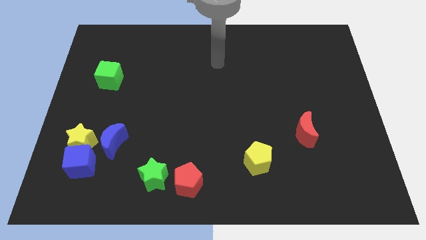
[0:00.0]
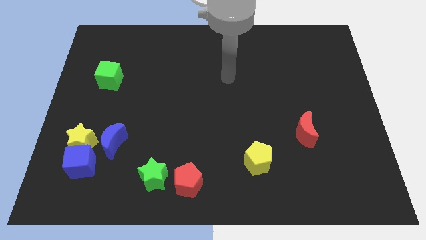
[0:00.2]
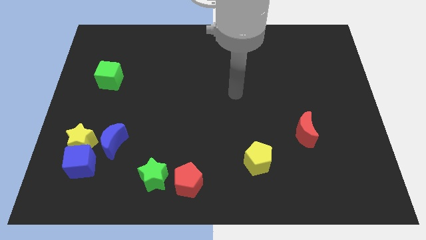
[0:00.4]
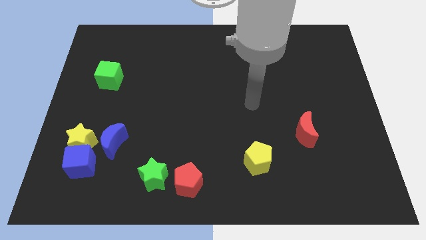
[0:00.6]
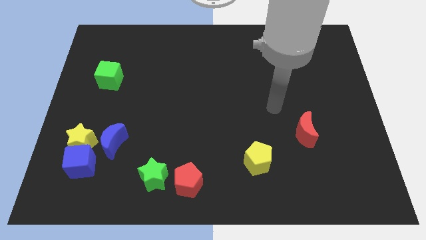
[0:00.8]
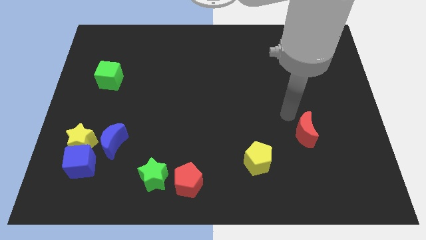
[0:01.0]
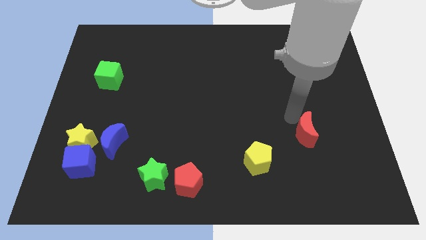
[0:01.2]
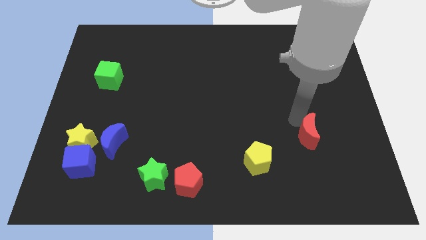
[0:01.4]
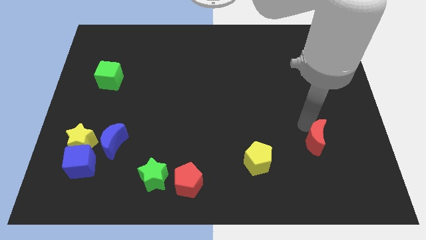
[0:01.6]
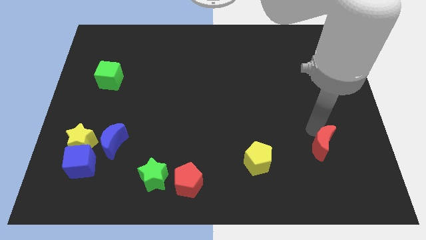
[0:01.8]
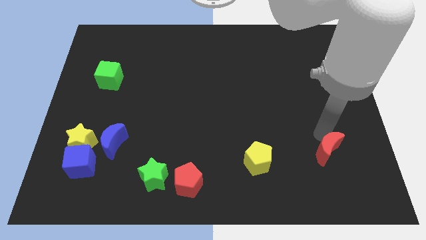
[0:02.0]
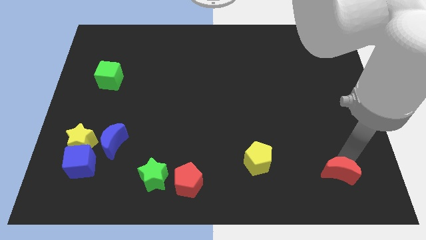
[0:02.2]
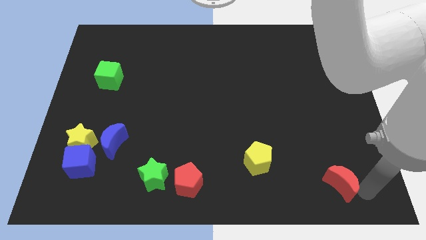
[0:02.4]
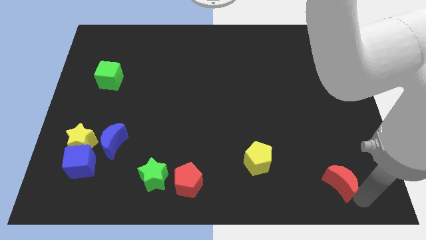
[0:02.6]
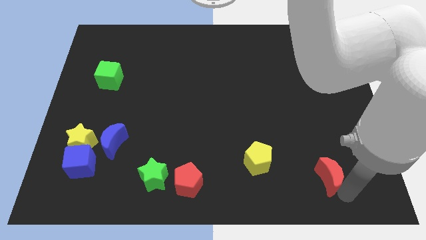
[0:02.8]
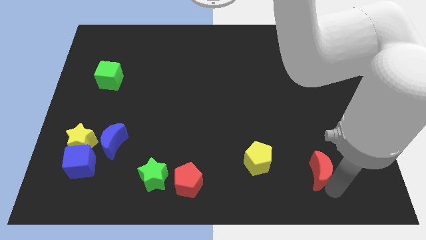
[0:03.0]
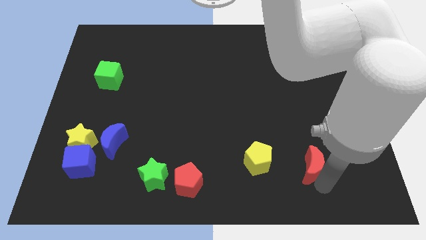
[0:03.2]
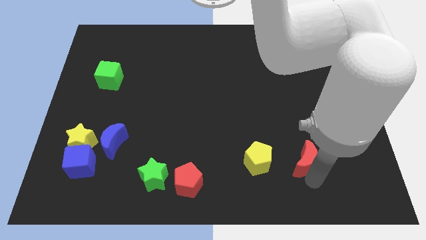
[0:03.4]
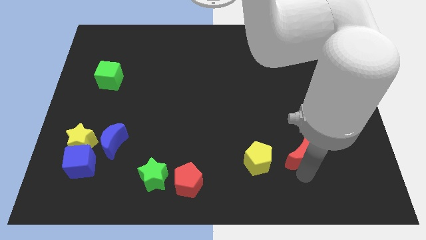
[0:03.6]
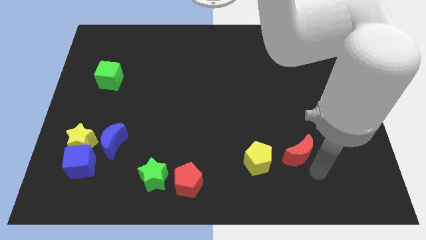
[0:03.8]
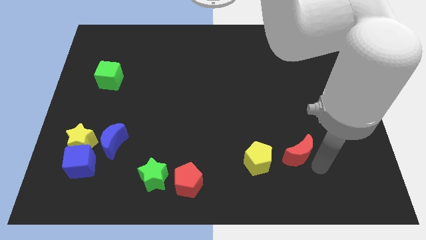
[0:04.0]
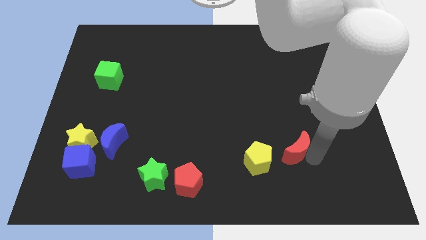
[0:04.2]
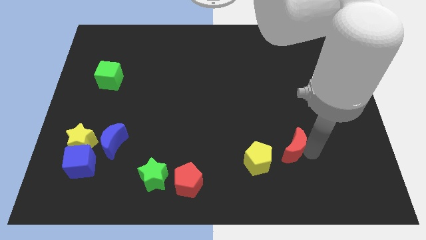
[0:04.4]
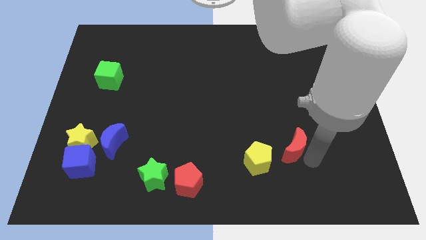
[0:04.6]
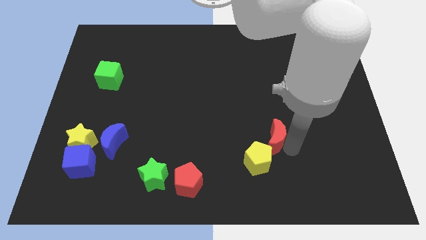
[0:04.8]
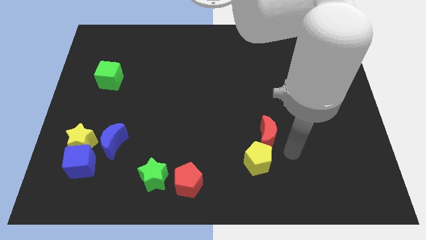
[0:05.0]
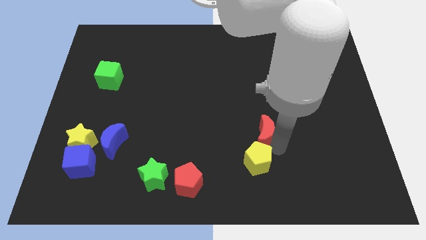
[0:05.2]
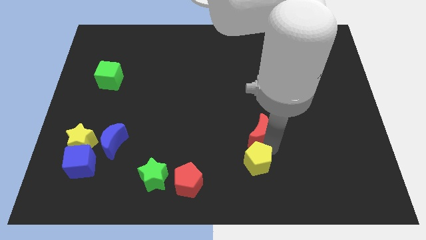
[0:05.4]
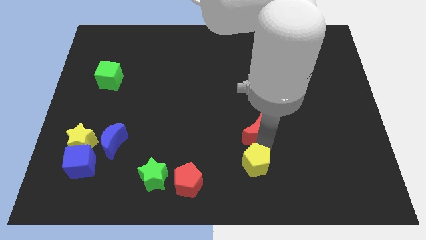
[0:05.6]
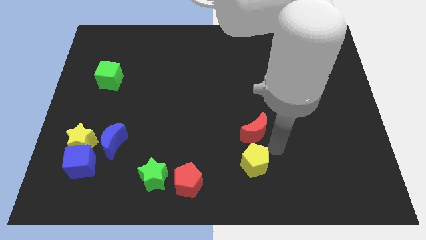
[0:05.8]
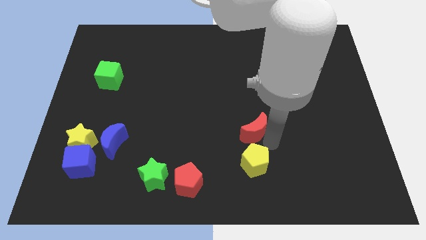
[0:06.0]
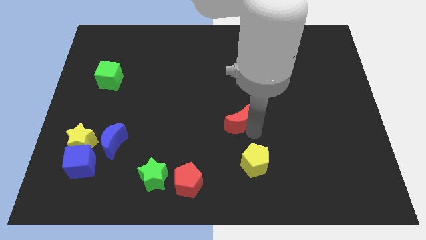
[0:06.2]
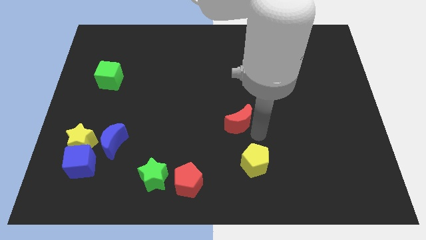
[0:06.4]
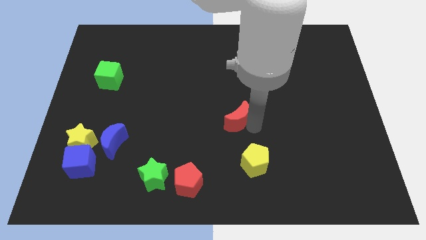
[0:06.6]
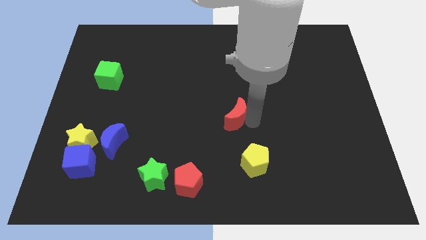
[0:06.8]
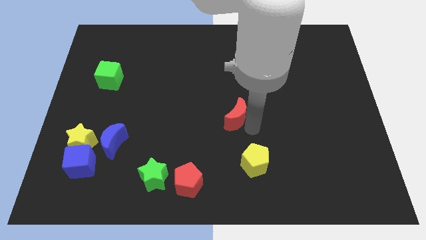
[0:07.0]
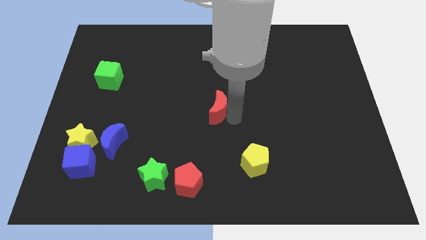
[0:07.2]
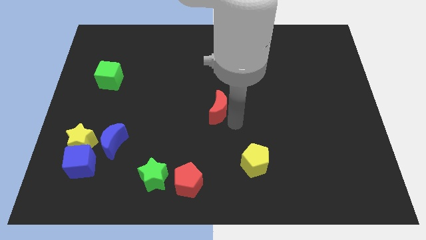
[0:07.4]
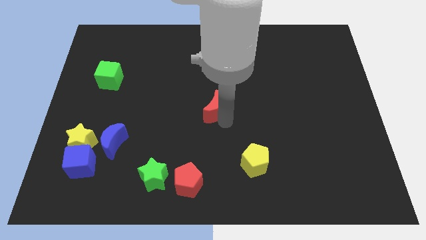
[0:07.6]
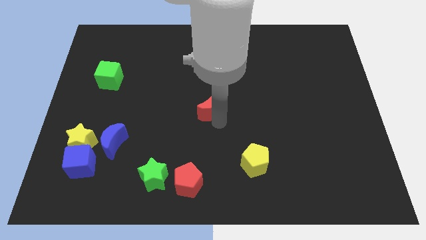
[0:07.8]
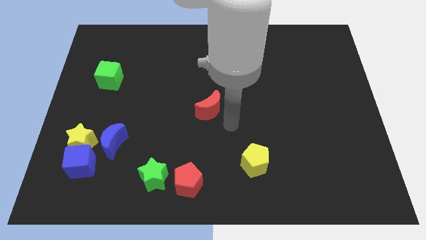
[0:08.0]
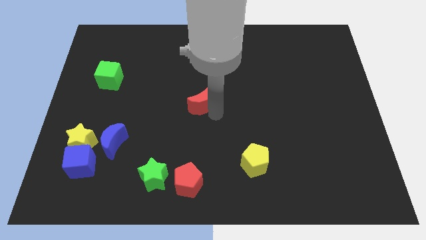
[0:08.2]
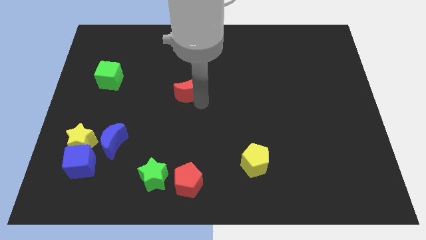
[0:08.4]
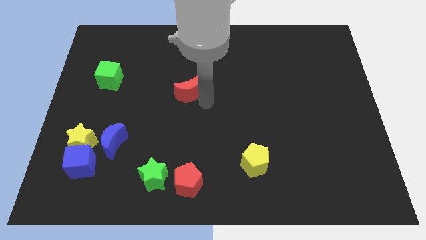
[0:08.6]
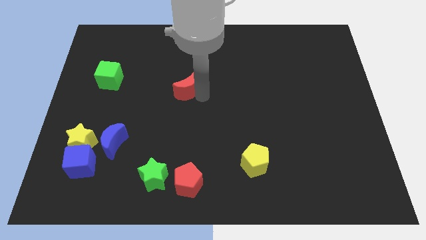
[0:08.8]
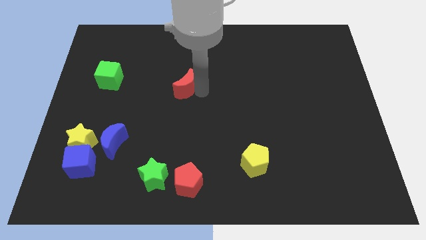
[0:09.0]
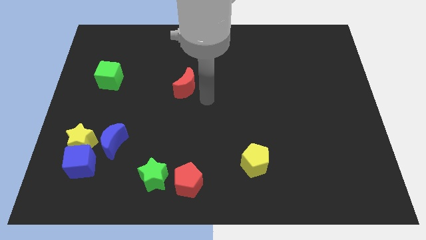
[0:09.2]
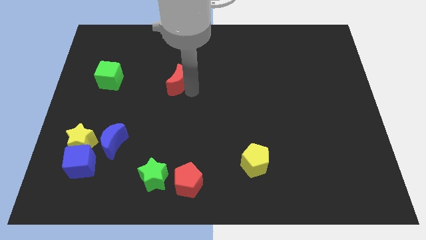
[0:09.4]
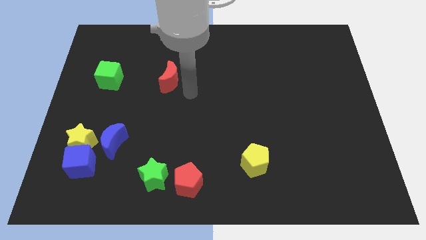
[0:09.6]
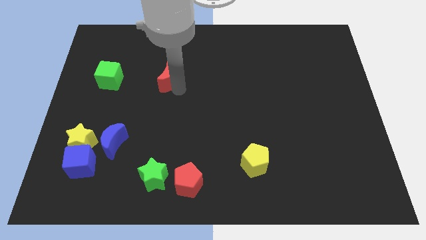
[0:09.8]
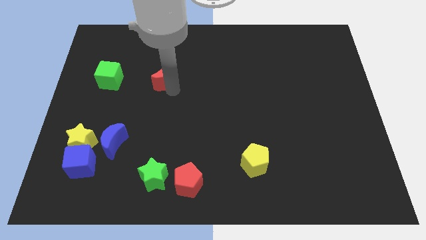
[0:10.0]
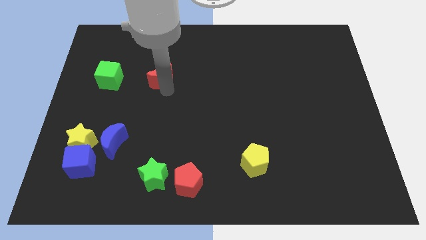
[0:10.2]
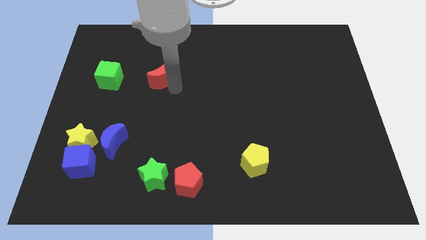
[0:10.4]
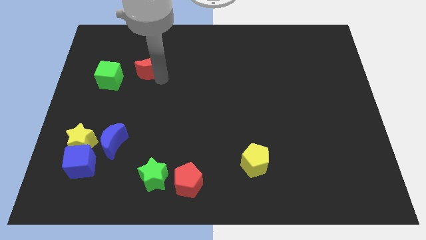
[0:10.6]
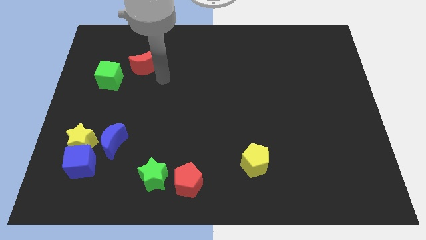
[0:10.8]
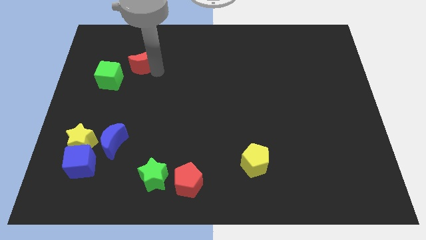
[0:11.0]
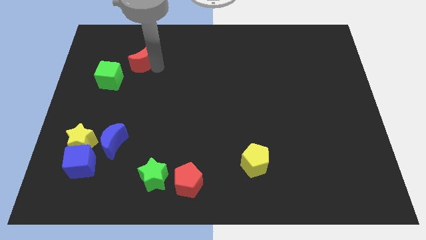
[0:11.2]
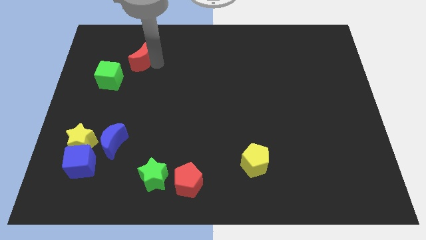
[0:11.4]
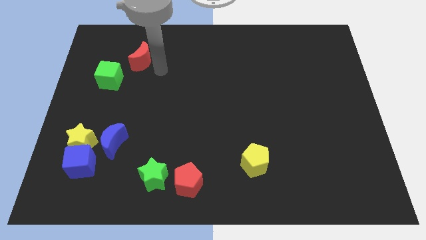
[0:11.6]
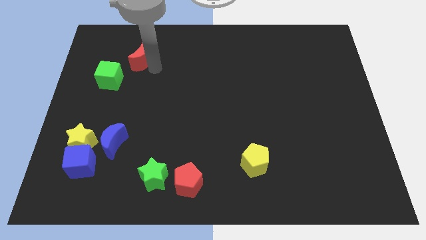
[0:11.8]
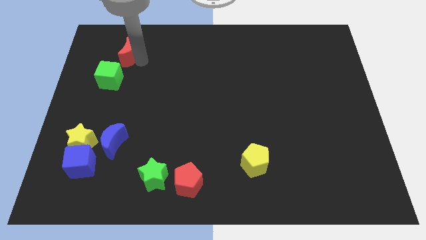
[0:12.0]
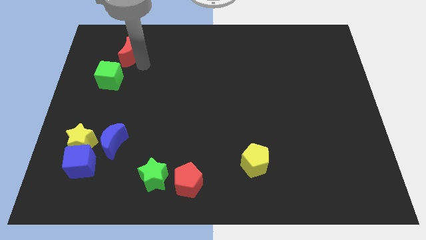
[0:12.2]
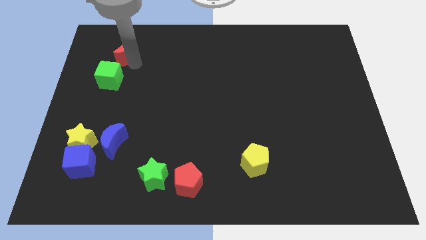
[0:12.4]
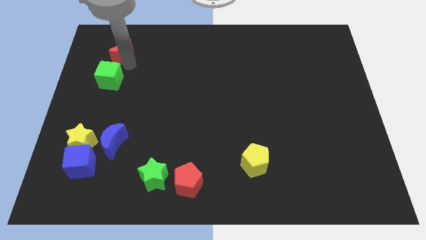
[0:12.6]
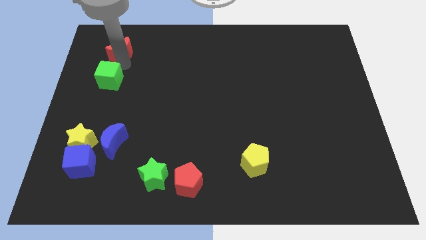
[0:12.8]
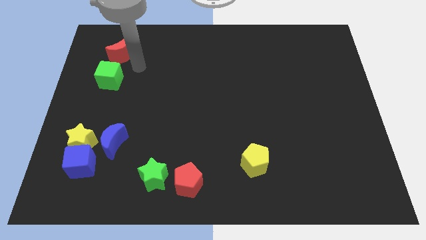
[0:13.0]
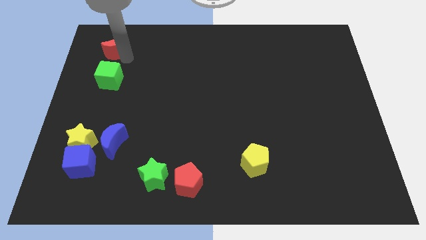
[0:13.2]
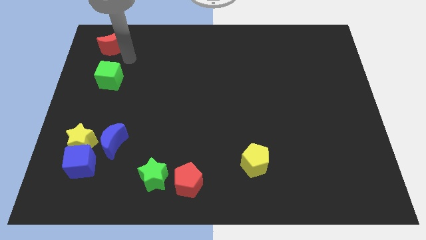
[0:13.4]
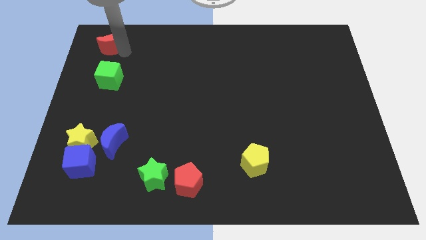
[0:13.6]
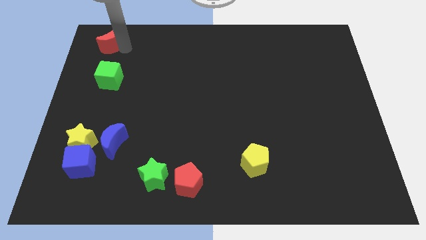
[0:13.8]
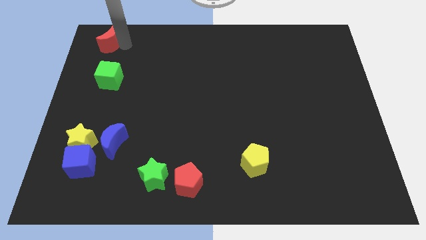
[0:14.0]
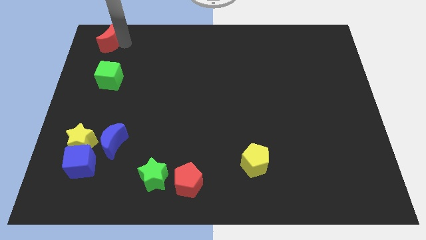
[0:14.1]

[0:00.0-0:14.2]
slide the red moon to the top left corner

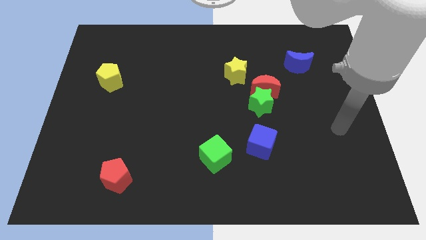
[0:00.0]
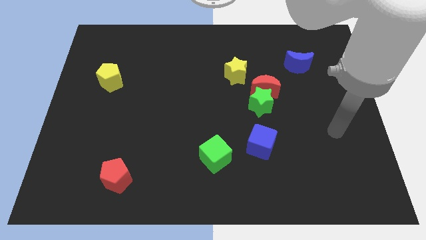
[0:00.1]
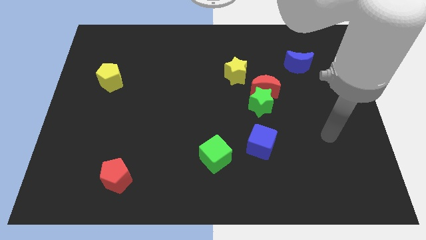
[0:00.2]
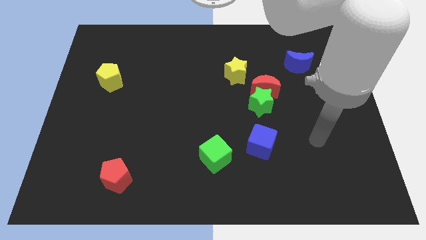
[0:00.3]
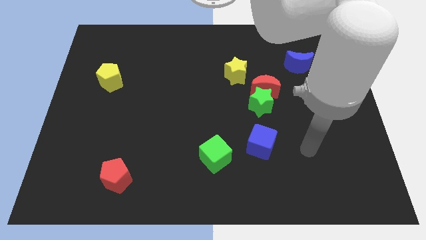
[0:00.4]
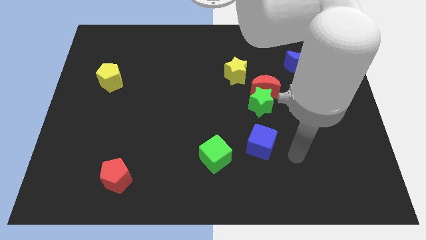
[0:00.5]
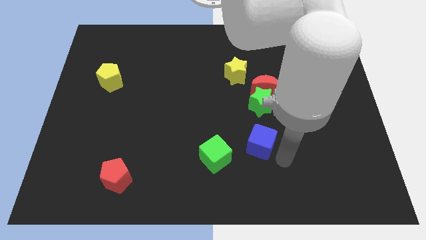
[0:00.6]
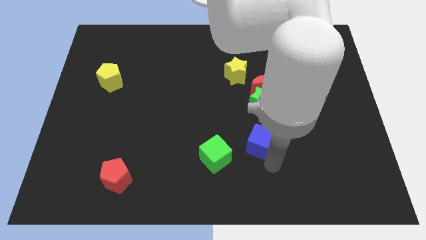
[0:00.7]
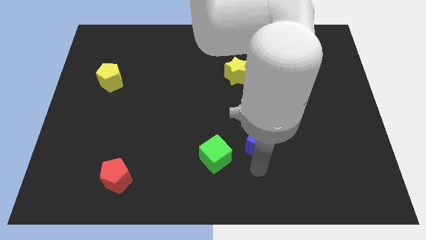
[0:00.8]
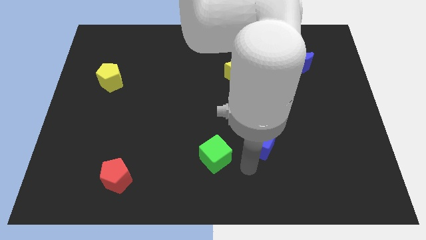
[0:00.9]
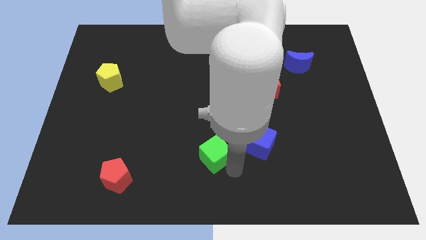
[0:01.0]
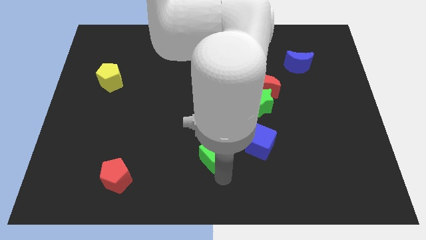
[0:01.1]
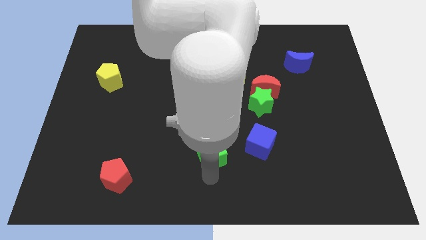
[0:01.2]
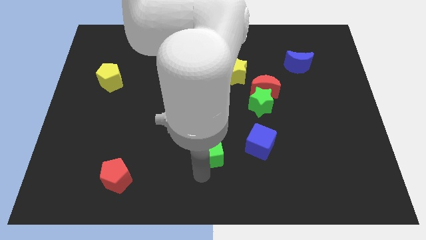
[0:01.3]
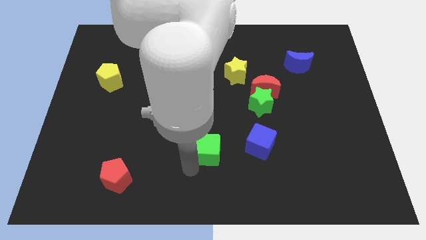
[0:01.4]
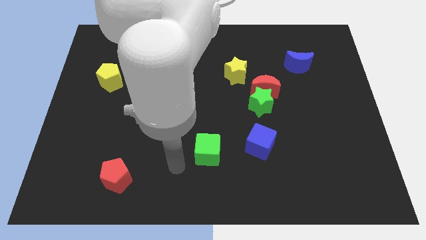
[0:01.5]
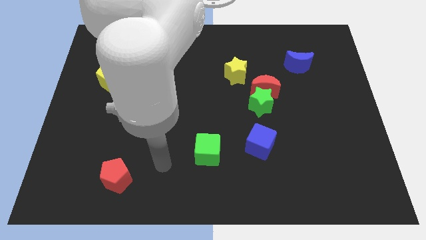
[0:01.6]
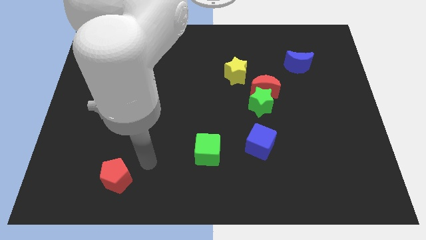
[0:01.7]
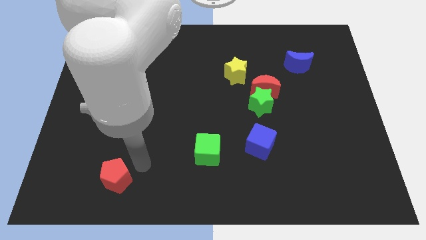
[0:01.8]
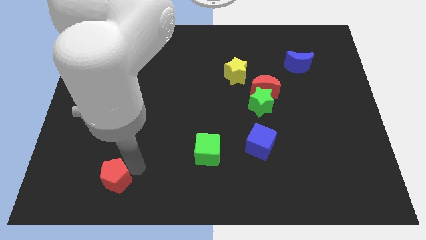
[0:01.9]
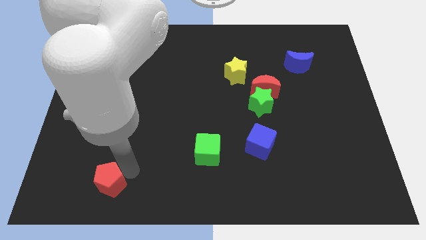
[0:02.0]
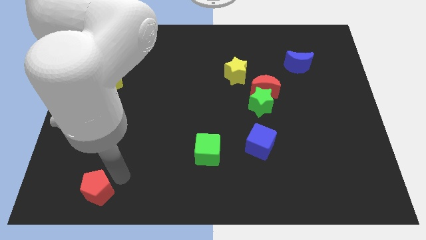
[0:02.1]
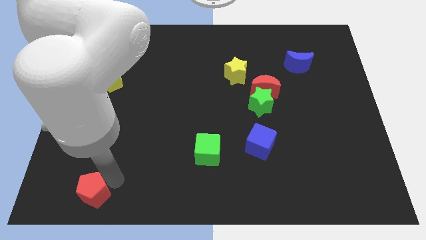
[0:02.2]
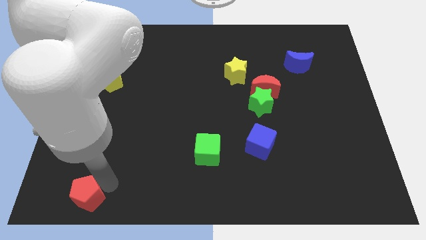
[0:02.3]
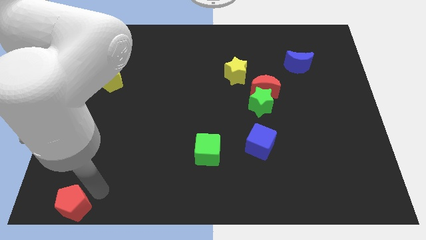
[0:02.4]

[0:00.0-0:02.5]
slide the red pentagon to the bottom left corner
